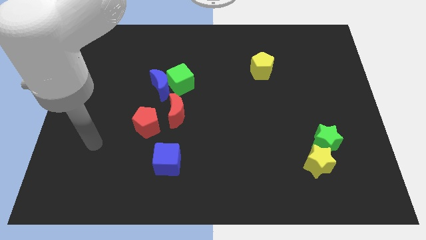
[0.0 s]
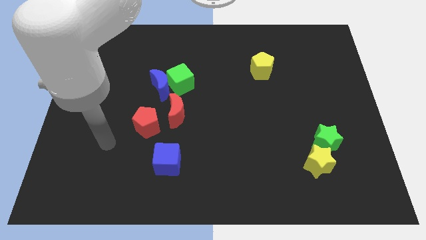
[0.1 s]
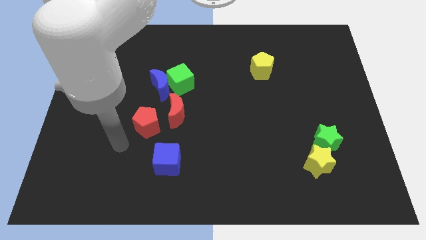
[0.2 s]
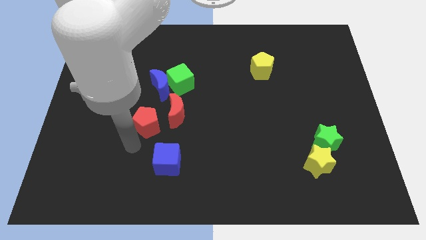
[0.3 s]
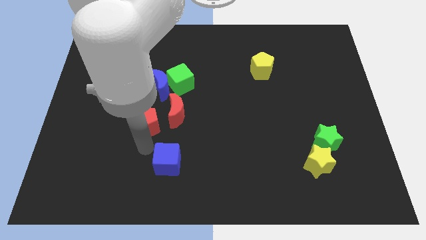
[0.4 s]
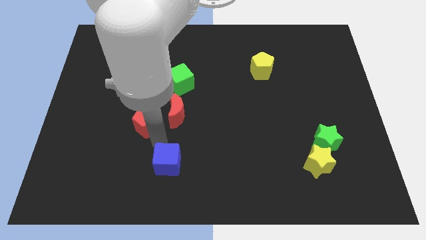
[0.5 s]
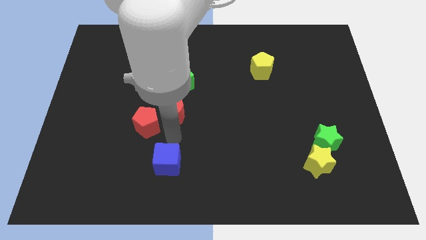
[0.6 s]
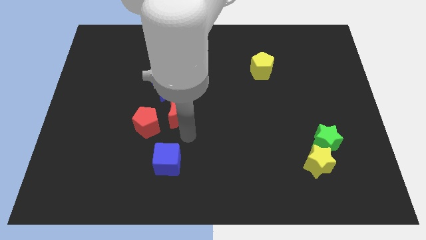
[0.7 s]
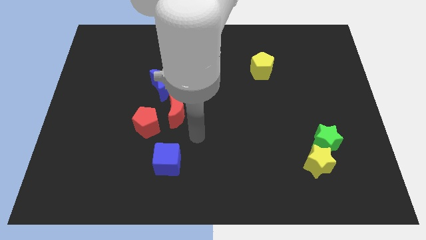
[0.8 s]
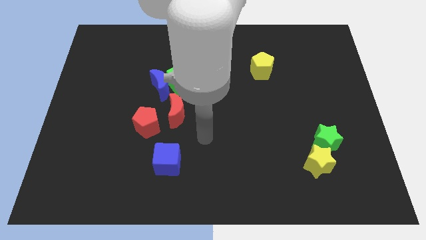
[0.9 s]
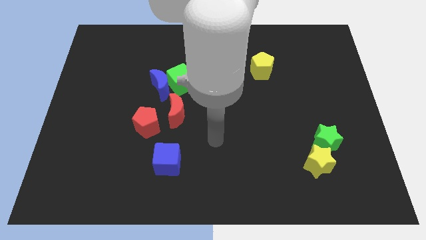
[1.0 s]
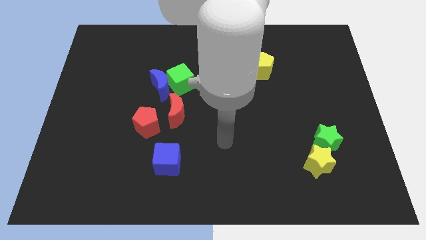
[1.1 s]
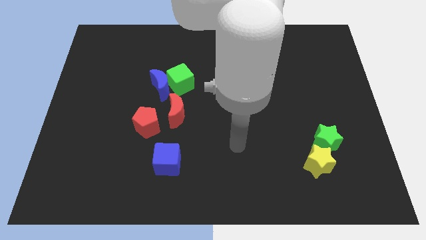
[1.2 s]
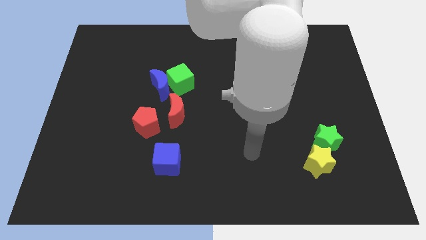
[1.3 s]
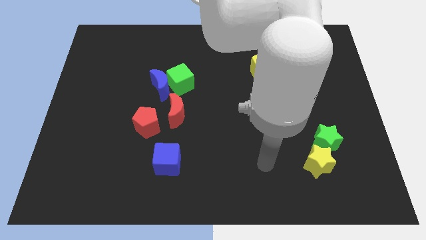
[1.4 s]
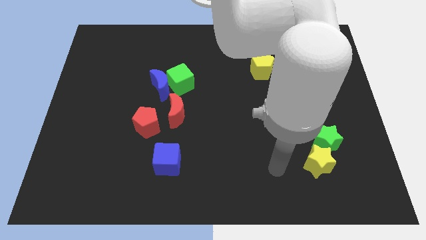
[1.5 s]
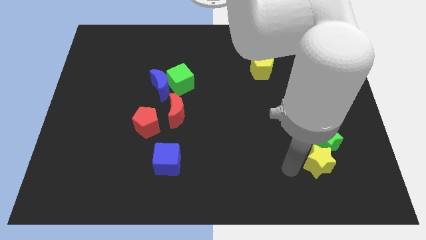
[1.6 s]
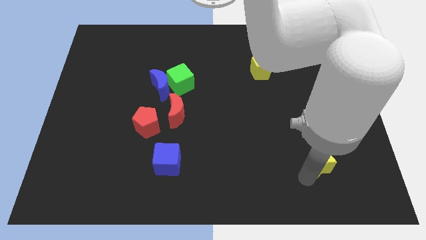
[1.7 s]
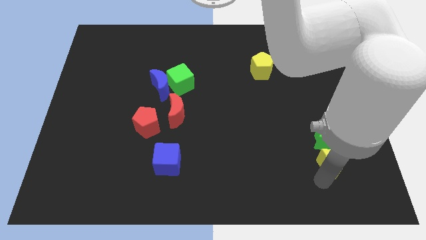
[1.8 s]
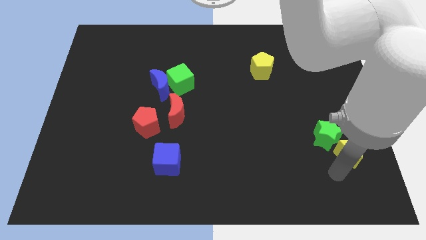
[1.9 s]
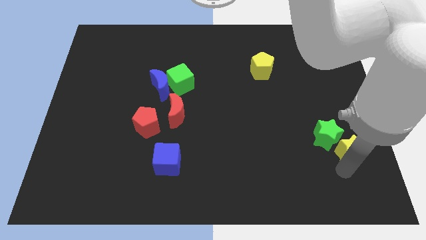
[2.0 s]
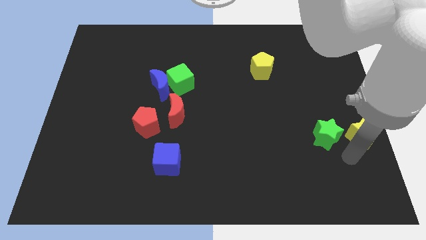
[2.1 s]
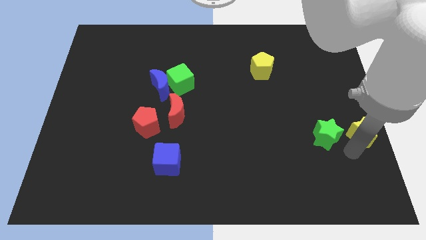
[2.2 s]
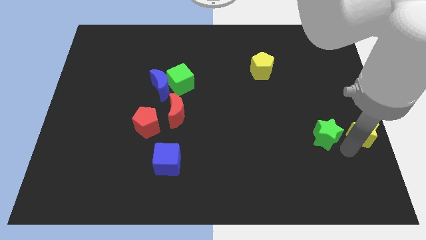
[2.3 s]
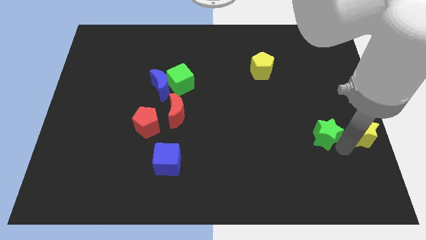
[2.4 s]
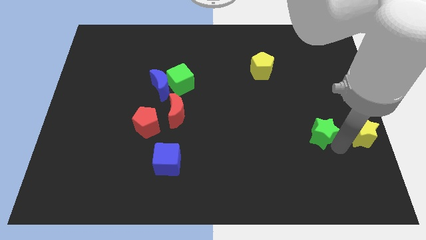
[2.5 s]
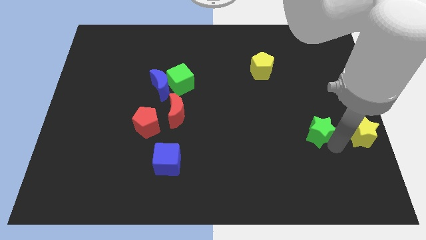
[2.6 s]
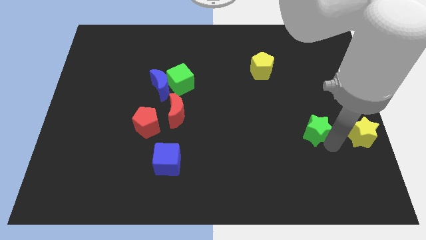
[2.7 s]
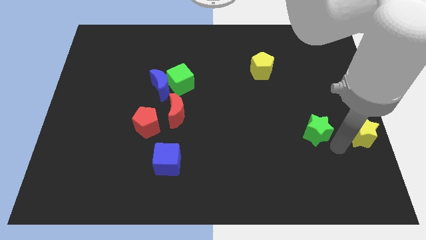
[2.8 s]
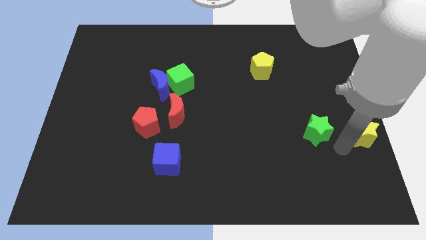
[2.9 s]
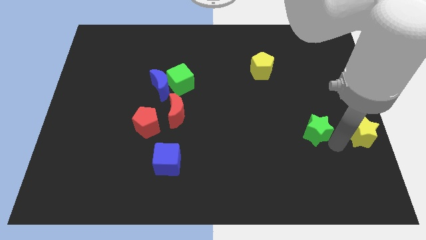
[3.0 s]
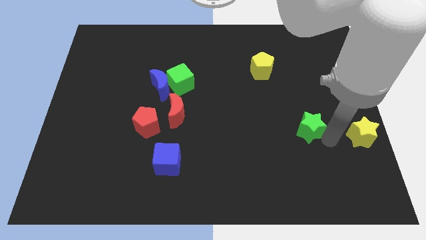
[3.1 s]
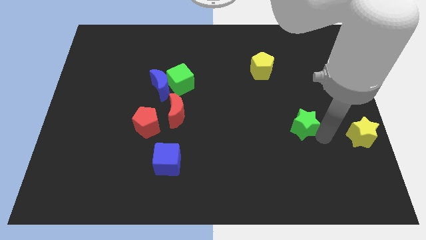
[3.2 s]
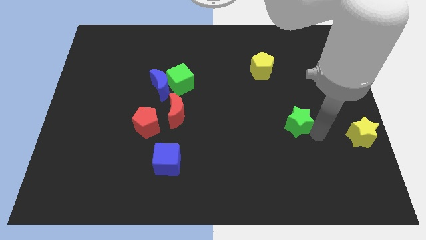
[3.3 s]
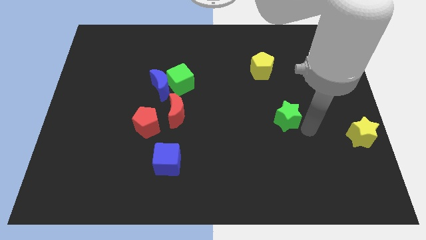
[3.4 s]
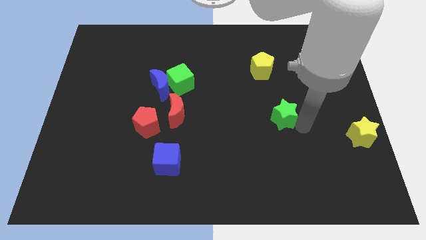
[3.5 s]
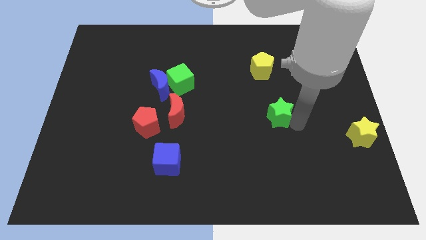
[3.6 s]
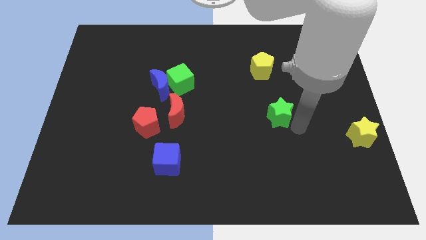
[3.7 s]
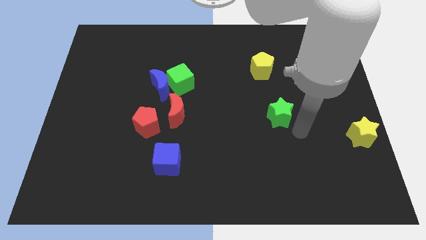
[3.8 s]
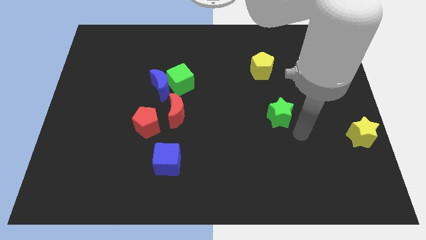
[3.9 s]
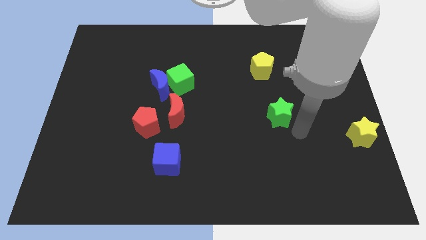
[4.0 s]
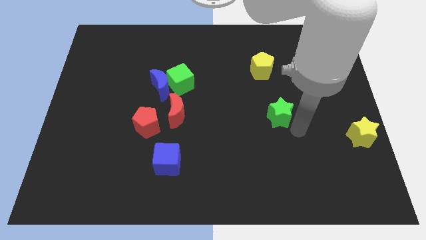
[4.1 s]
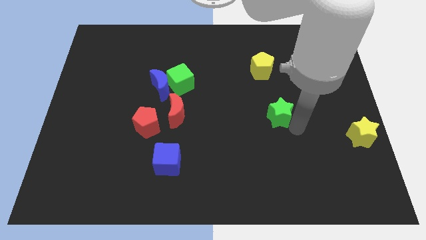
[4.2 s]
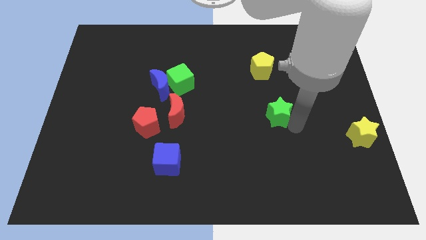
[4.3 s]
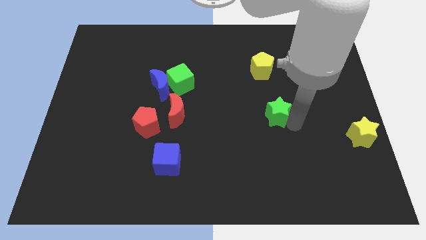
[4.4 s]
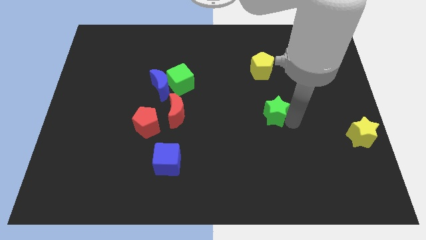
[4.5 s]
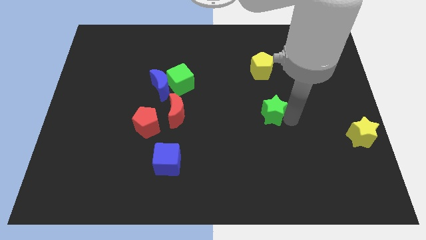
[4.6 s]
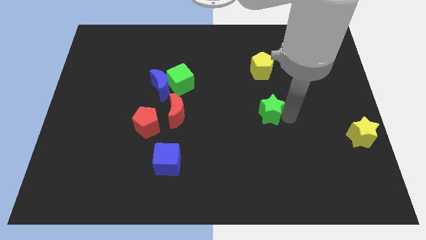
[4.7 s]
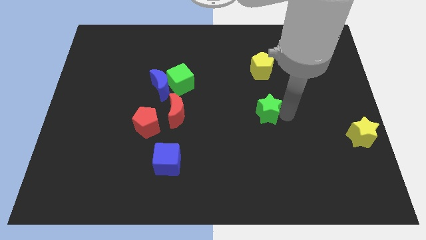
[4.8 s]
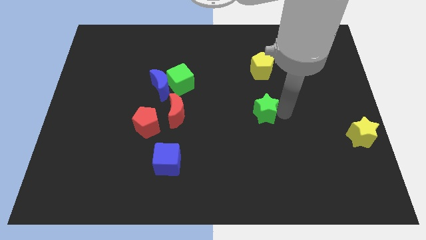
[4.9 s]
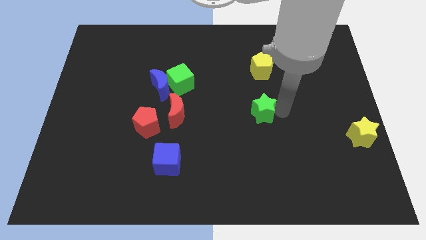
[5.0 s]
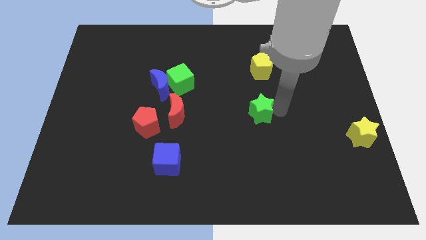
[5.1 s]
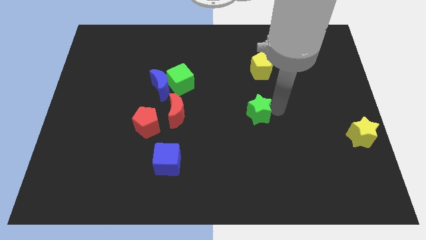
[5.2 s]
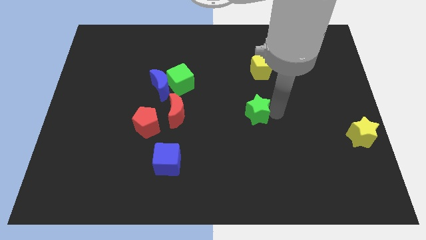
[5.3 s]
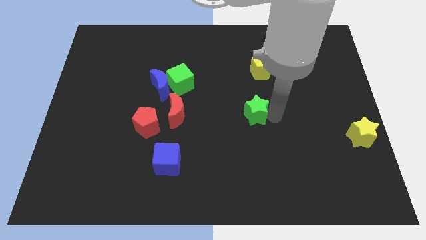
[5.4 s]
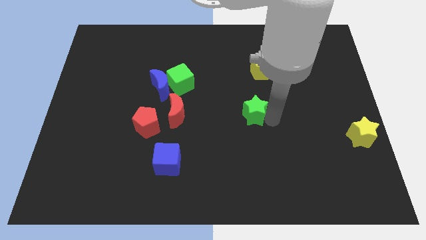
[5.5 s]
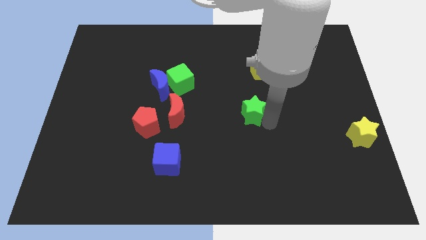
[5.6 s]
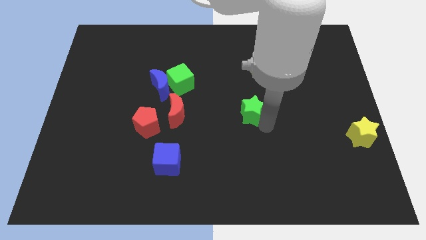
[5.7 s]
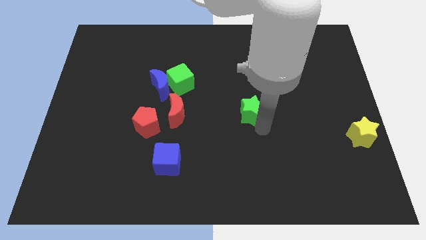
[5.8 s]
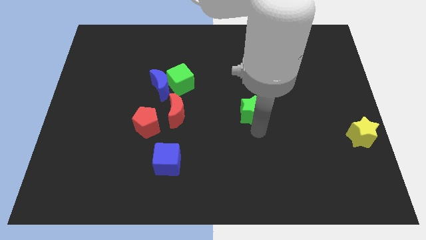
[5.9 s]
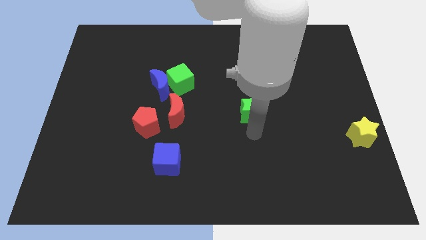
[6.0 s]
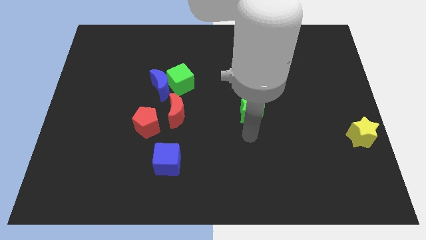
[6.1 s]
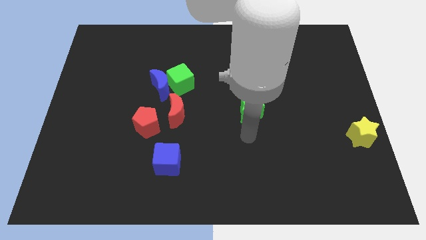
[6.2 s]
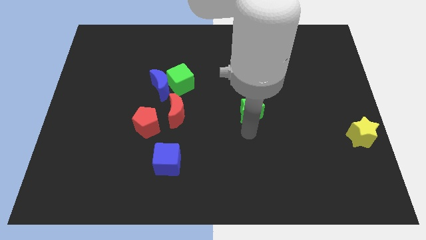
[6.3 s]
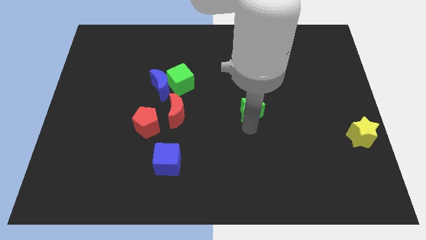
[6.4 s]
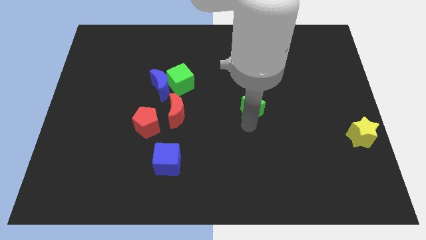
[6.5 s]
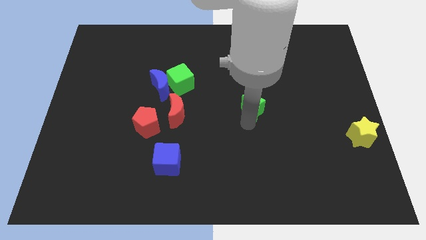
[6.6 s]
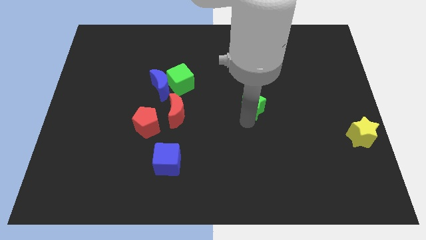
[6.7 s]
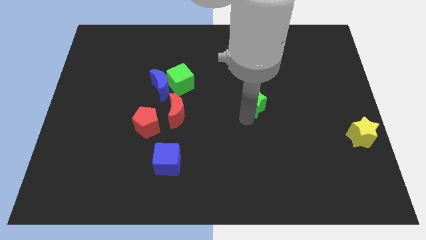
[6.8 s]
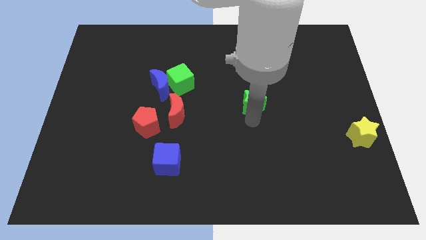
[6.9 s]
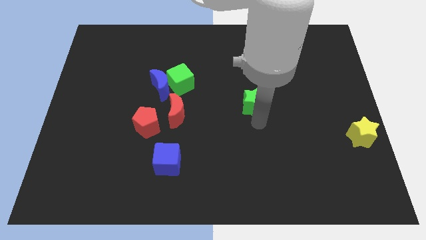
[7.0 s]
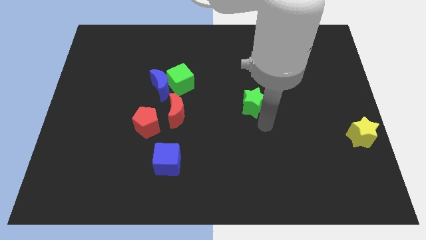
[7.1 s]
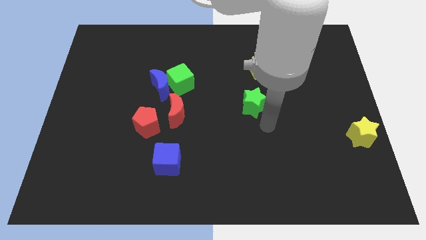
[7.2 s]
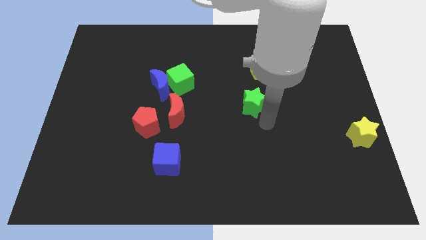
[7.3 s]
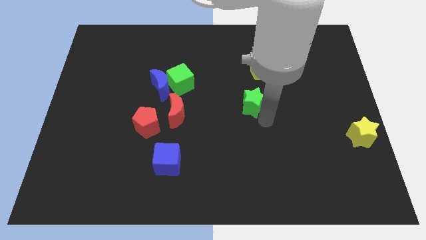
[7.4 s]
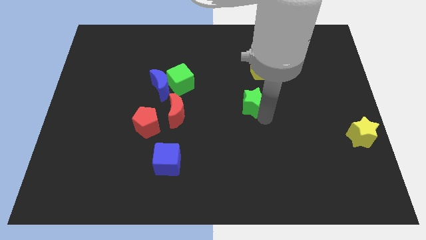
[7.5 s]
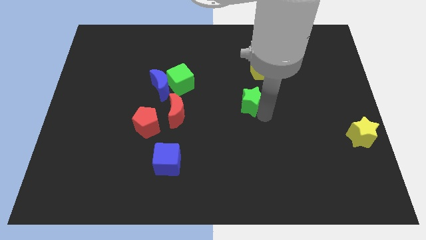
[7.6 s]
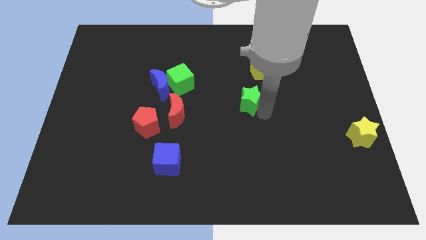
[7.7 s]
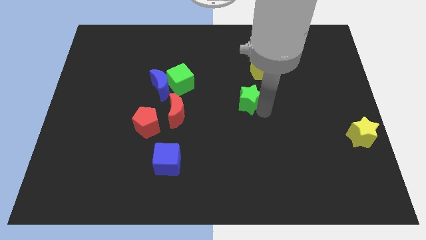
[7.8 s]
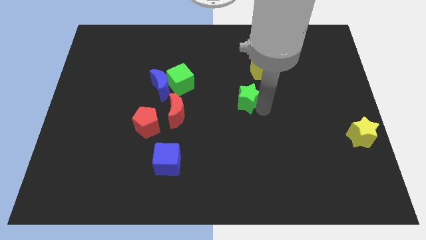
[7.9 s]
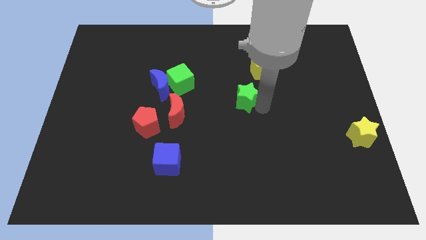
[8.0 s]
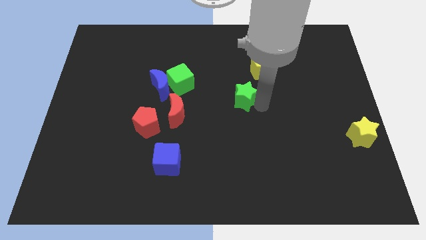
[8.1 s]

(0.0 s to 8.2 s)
slide the green star diagonally up and to the left
